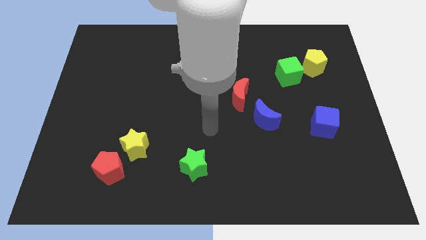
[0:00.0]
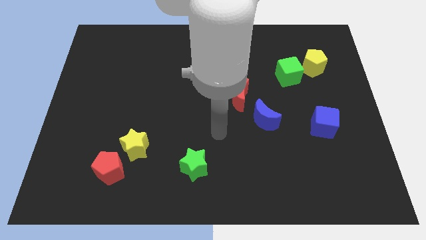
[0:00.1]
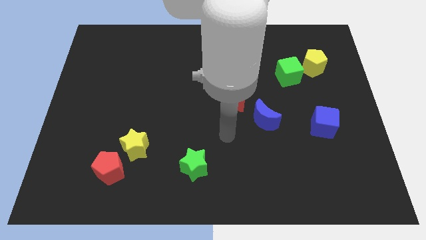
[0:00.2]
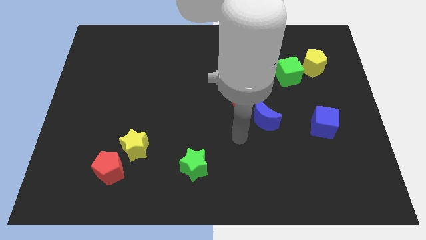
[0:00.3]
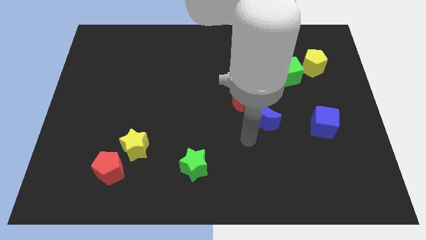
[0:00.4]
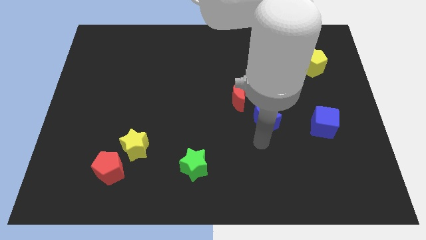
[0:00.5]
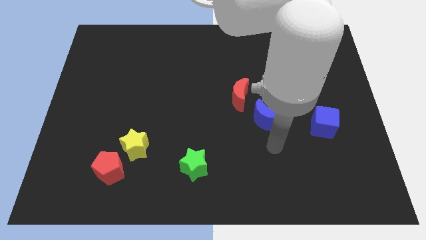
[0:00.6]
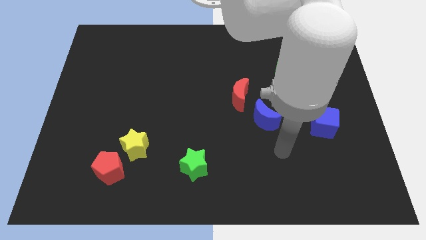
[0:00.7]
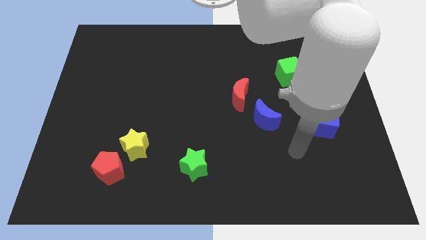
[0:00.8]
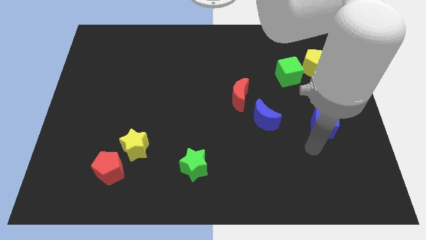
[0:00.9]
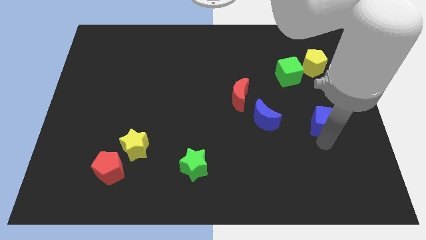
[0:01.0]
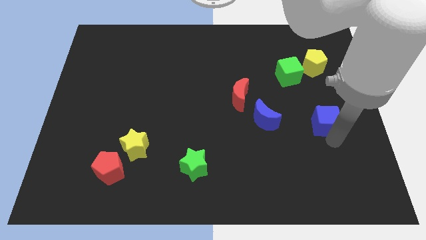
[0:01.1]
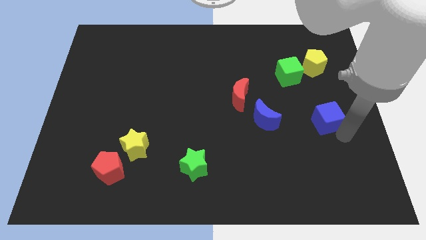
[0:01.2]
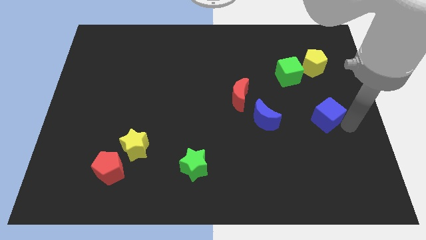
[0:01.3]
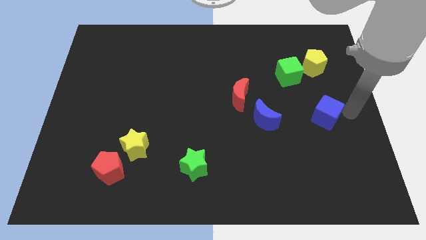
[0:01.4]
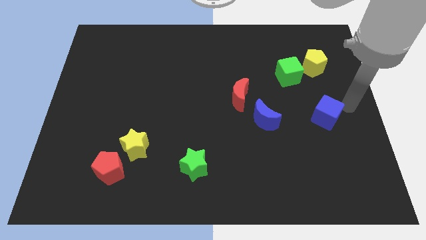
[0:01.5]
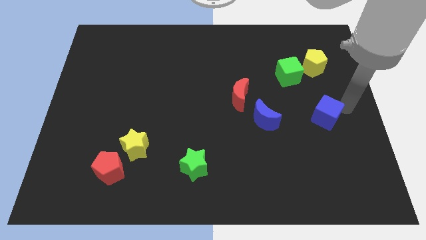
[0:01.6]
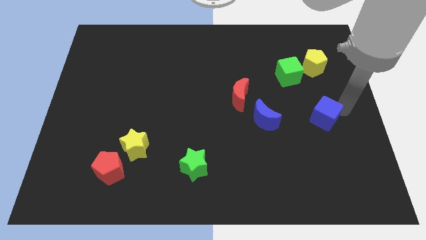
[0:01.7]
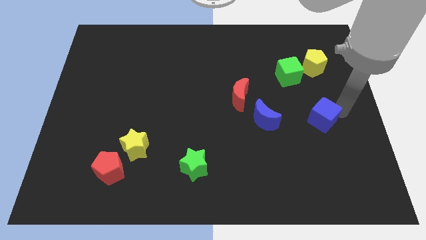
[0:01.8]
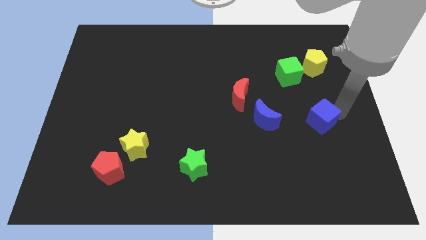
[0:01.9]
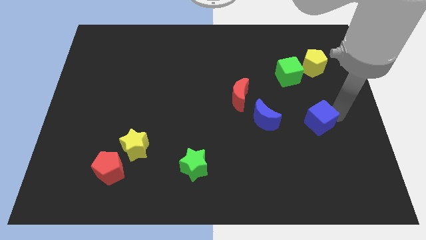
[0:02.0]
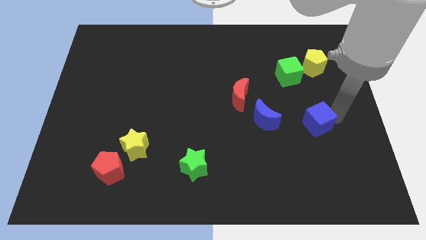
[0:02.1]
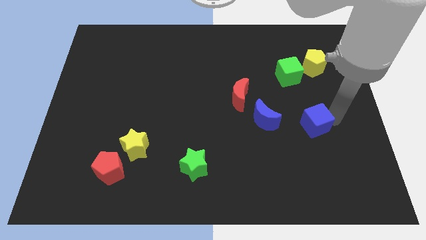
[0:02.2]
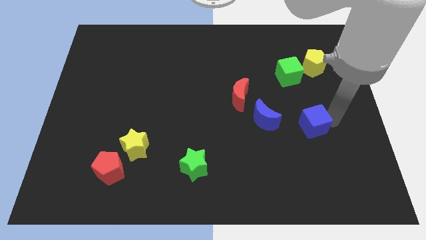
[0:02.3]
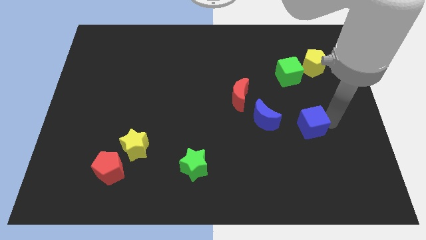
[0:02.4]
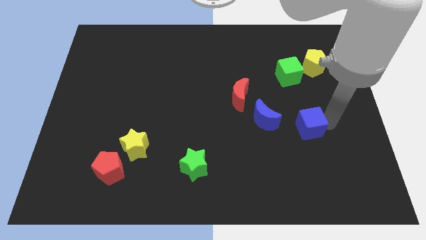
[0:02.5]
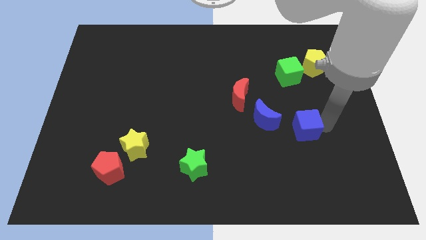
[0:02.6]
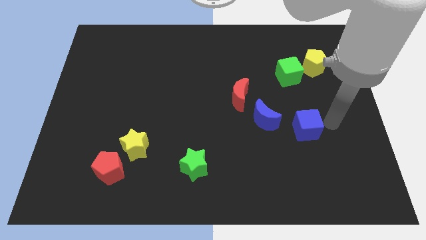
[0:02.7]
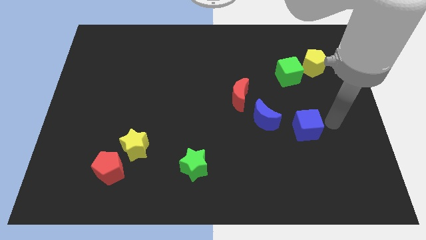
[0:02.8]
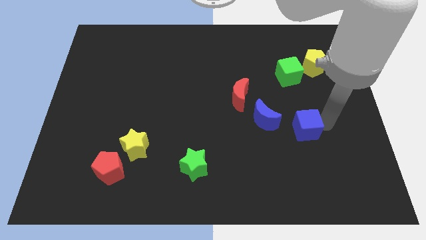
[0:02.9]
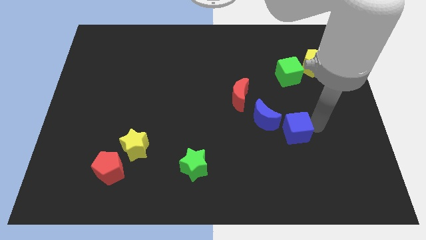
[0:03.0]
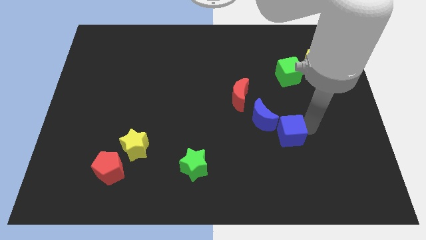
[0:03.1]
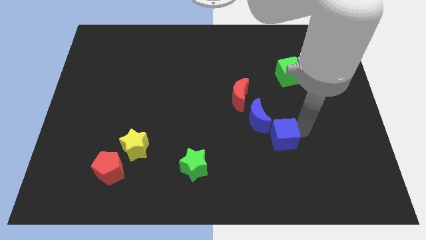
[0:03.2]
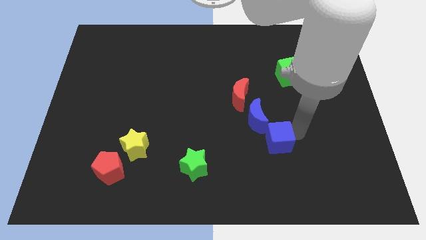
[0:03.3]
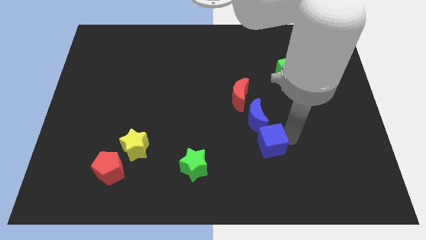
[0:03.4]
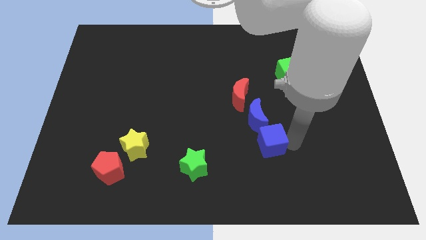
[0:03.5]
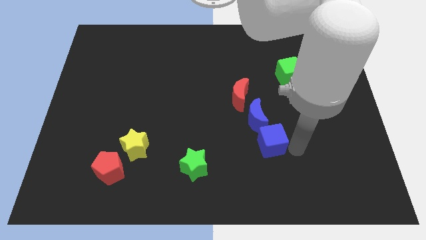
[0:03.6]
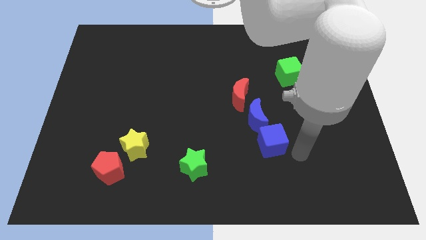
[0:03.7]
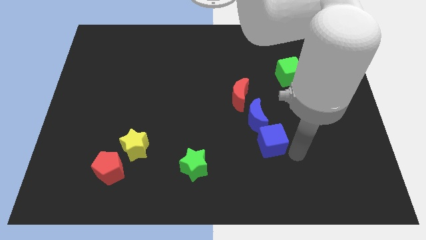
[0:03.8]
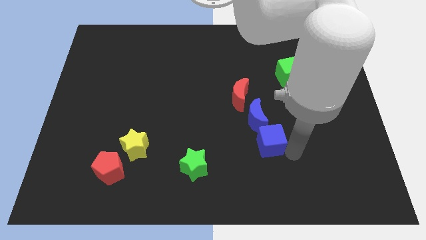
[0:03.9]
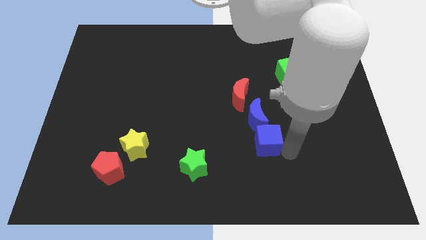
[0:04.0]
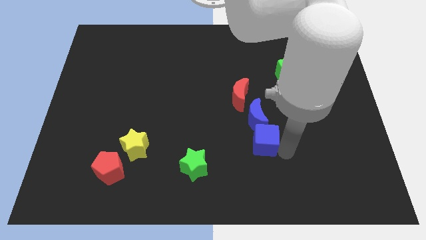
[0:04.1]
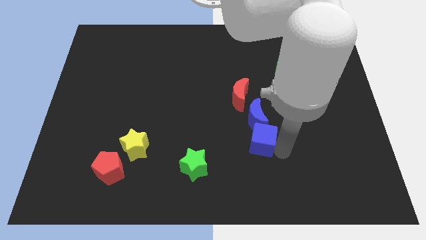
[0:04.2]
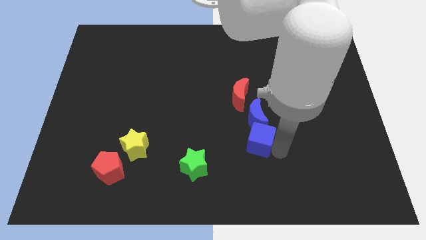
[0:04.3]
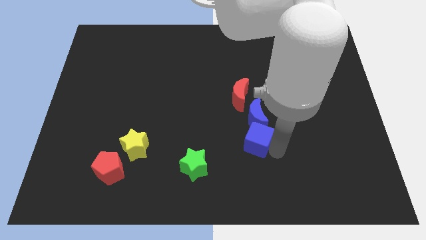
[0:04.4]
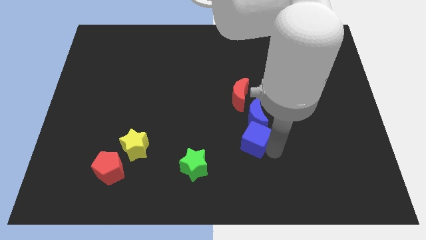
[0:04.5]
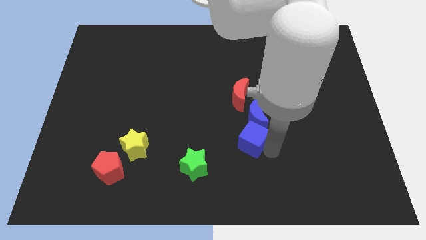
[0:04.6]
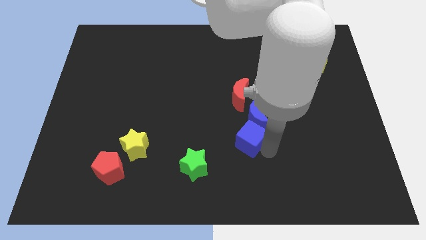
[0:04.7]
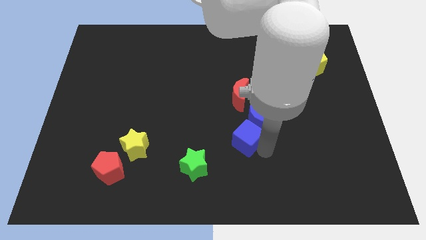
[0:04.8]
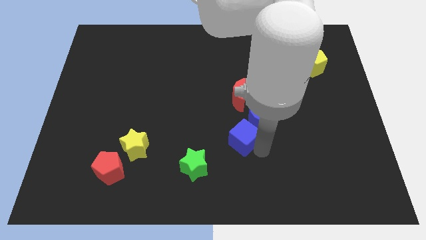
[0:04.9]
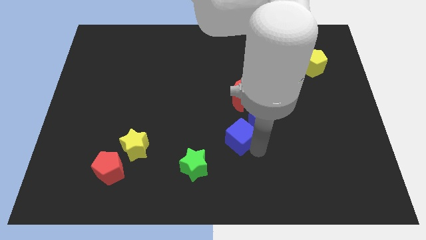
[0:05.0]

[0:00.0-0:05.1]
move the blue cube to the center

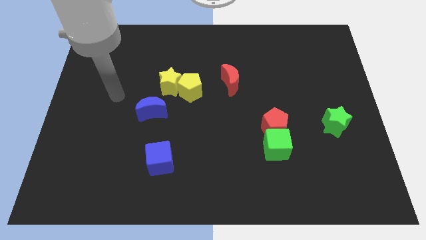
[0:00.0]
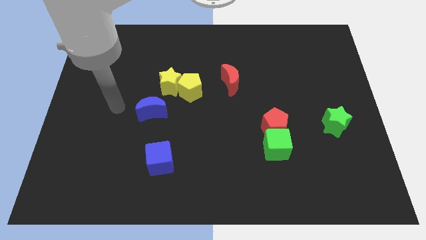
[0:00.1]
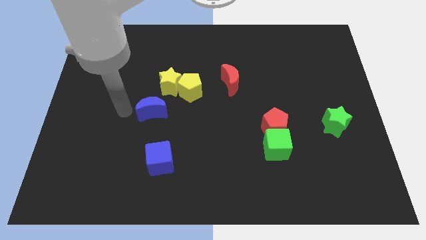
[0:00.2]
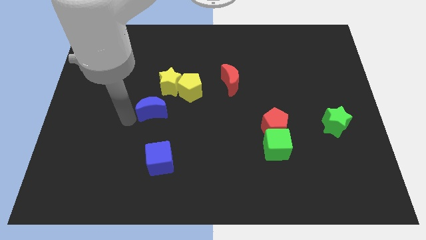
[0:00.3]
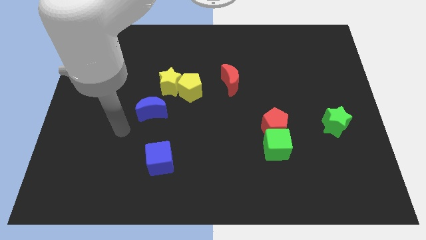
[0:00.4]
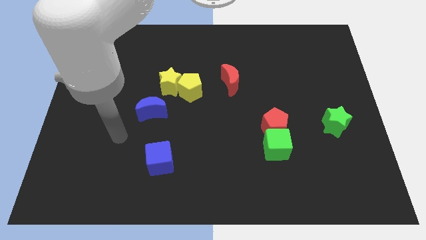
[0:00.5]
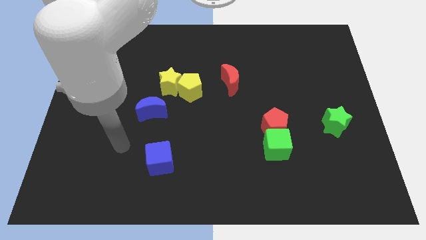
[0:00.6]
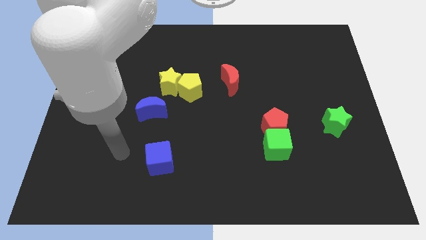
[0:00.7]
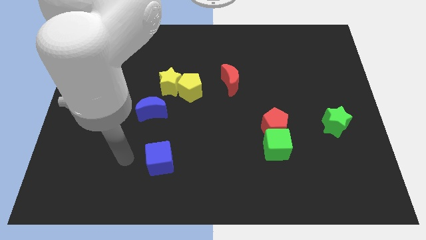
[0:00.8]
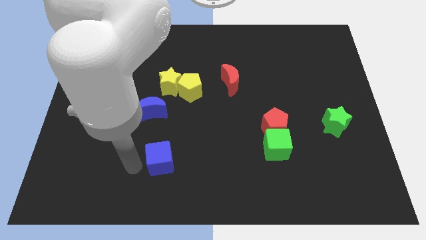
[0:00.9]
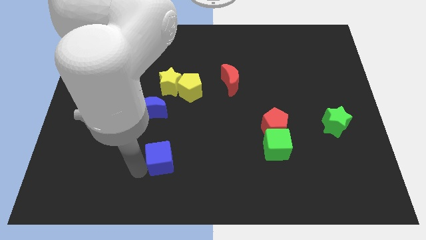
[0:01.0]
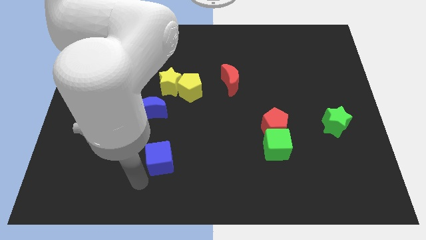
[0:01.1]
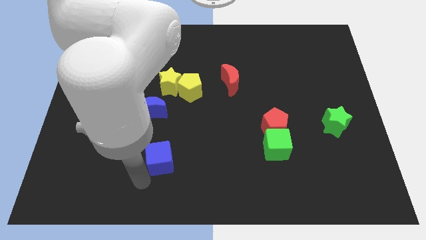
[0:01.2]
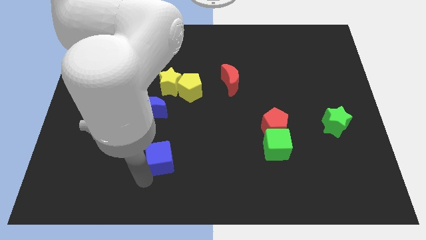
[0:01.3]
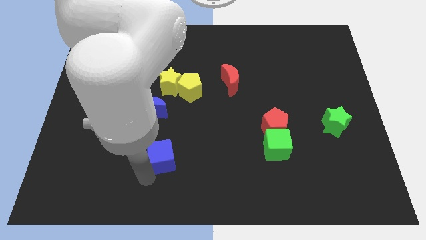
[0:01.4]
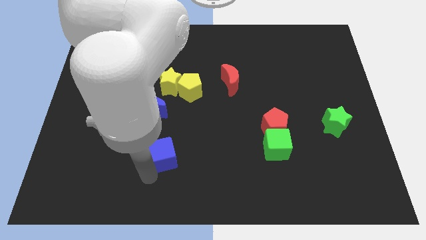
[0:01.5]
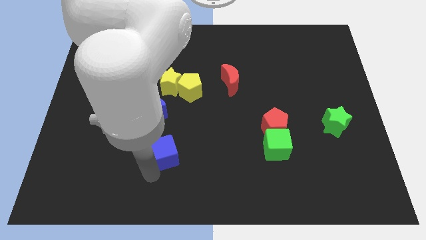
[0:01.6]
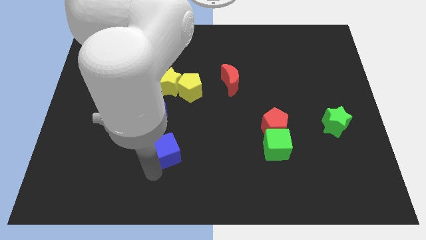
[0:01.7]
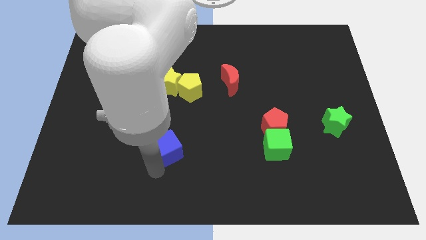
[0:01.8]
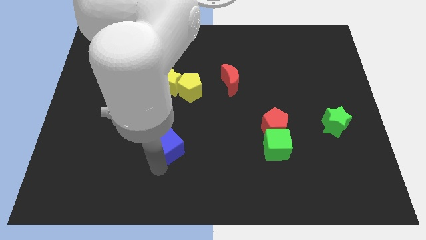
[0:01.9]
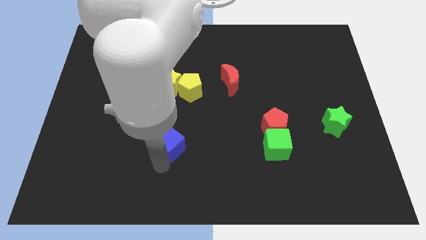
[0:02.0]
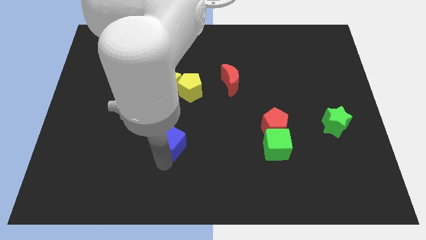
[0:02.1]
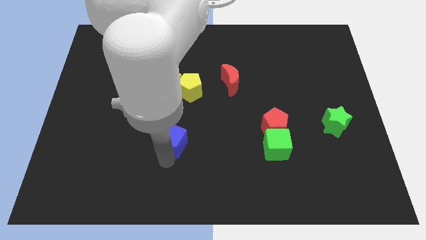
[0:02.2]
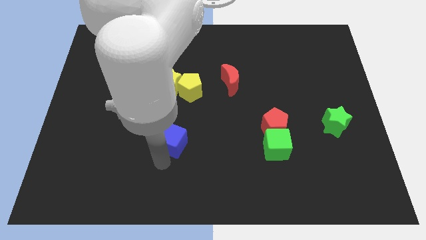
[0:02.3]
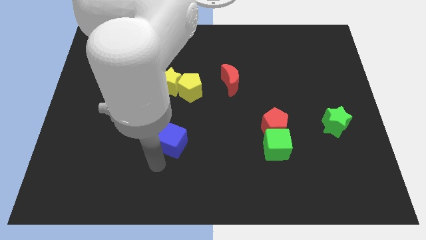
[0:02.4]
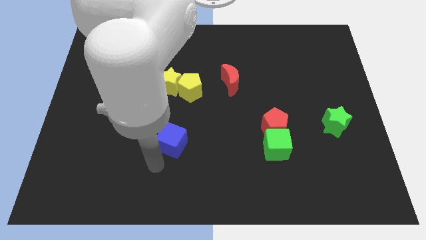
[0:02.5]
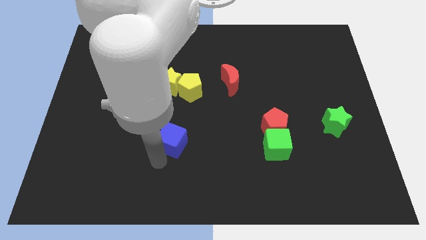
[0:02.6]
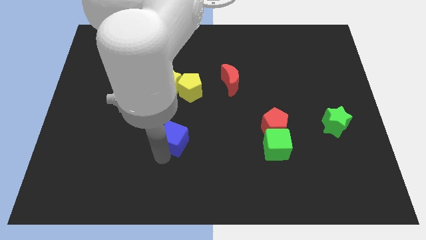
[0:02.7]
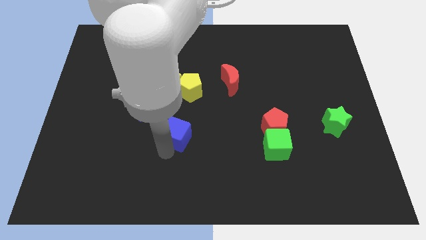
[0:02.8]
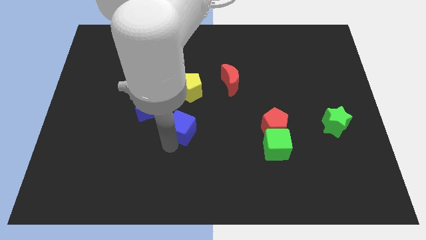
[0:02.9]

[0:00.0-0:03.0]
put the blue cube to the middle of the board
